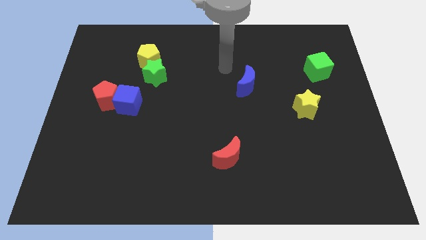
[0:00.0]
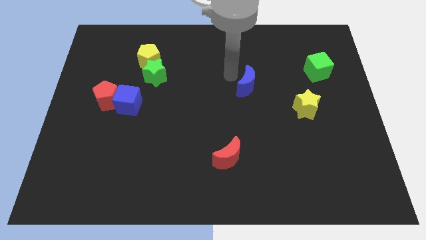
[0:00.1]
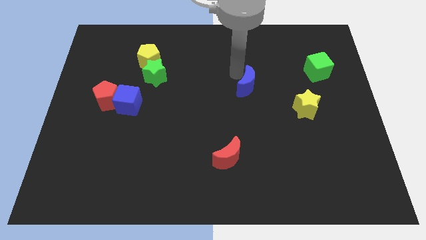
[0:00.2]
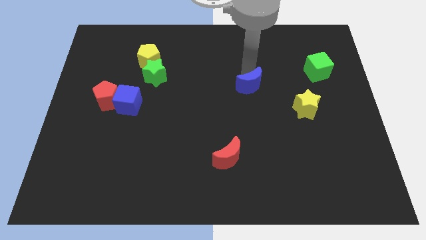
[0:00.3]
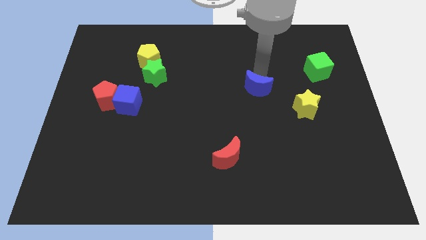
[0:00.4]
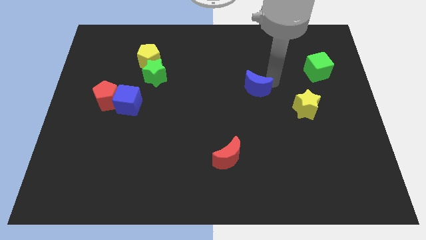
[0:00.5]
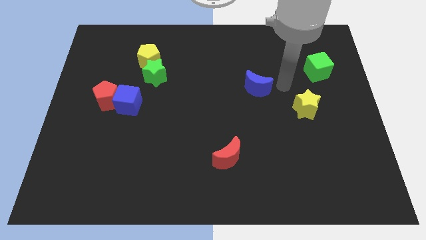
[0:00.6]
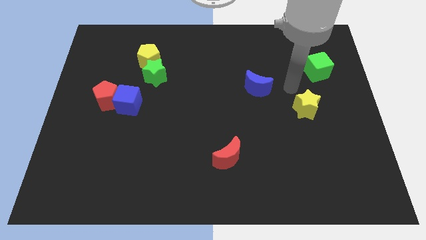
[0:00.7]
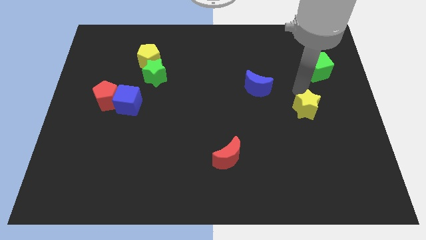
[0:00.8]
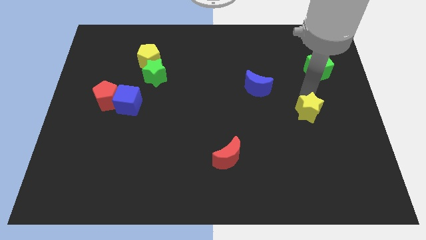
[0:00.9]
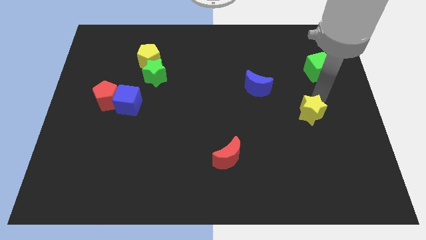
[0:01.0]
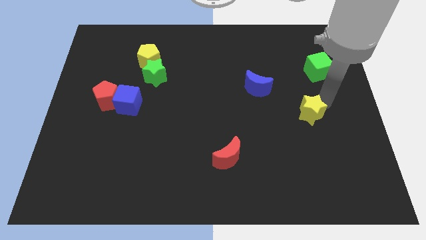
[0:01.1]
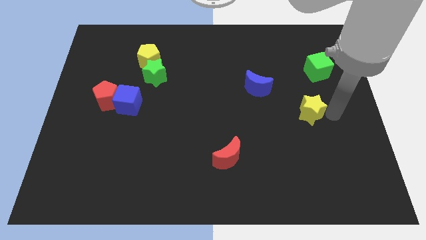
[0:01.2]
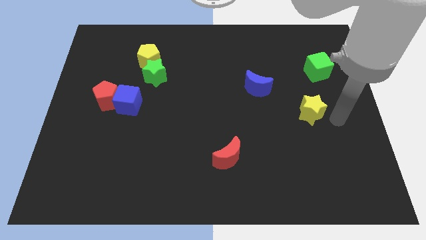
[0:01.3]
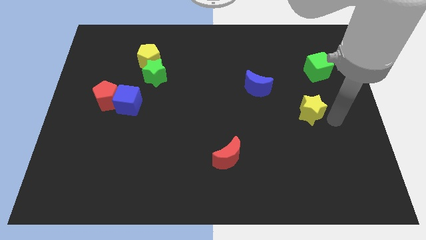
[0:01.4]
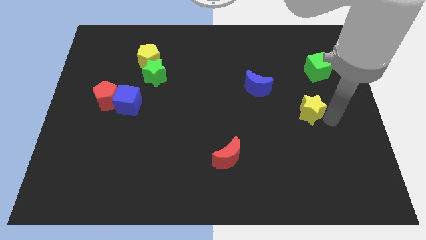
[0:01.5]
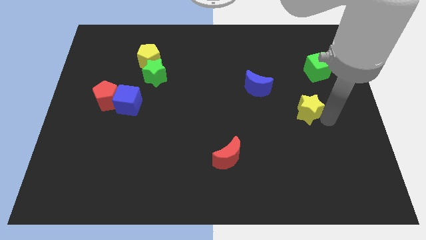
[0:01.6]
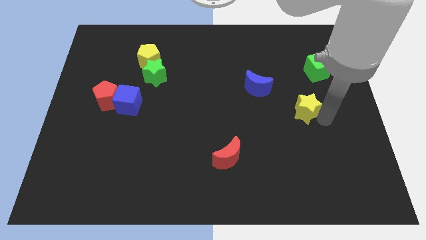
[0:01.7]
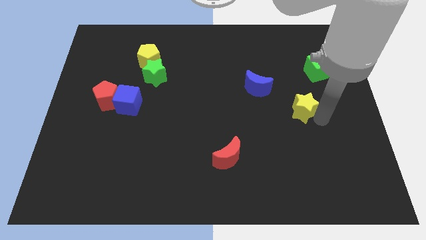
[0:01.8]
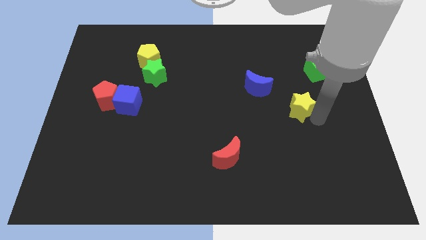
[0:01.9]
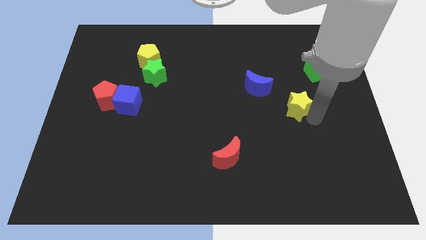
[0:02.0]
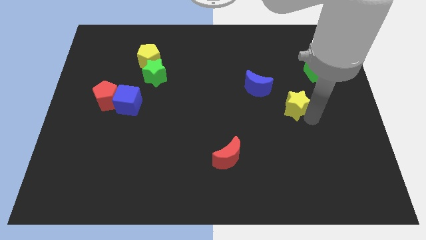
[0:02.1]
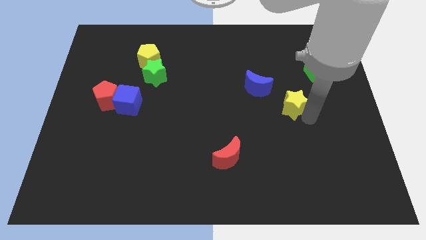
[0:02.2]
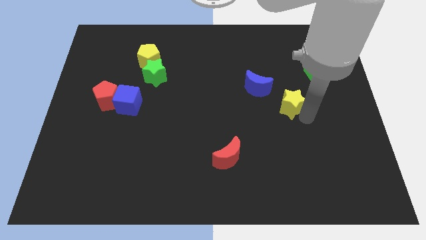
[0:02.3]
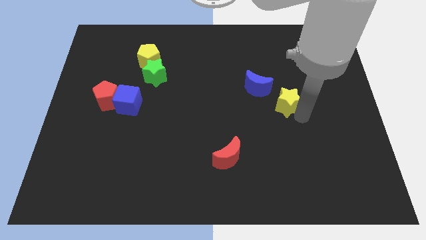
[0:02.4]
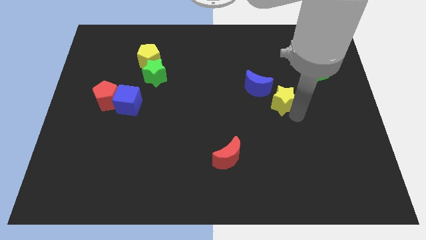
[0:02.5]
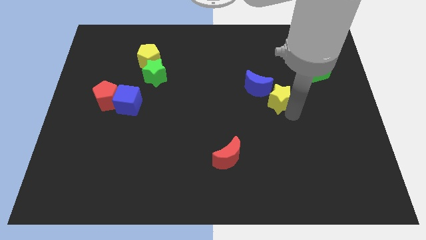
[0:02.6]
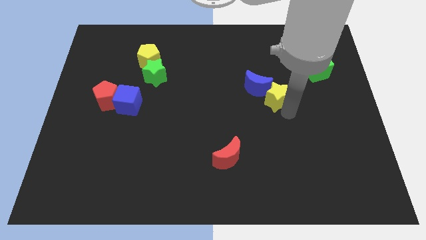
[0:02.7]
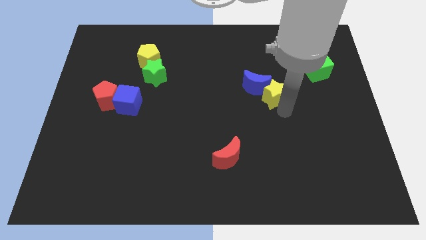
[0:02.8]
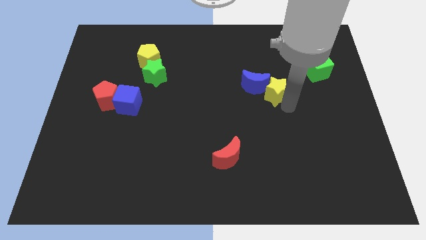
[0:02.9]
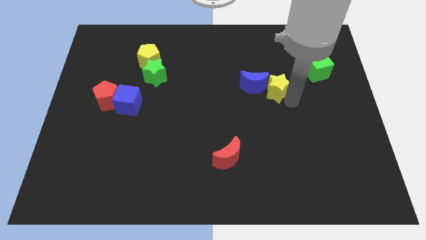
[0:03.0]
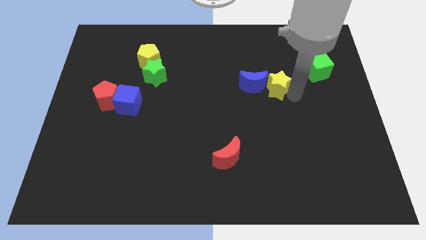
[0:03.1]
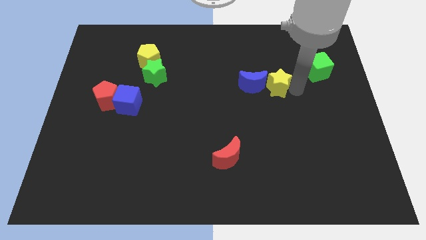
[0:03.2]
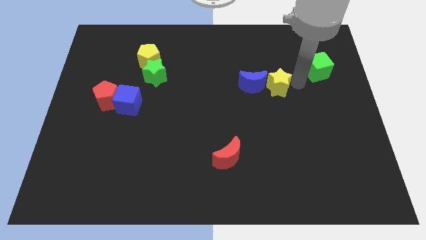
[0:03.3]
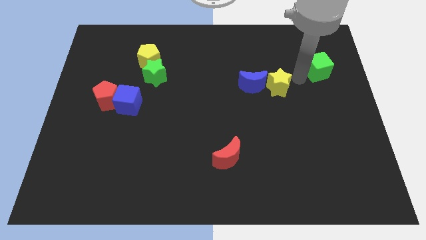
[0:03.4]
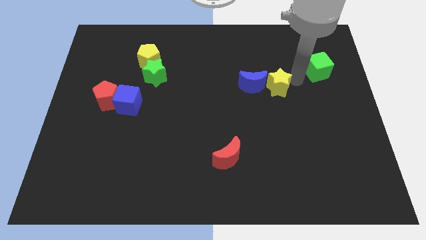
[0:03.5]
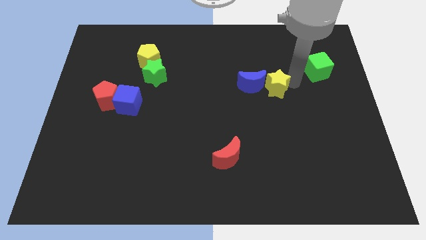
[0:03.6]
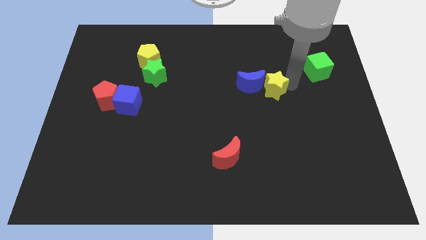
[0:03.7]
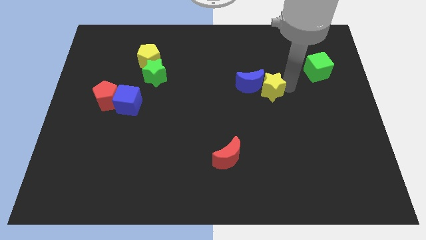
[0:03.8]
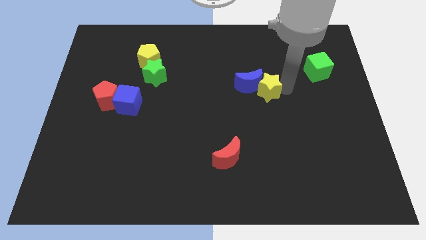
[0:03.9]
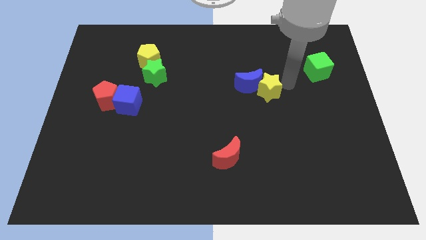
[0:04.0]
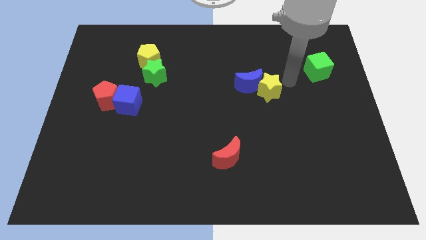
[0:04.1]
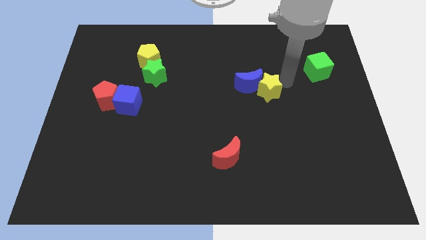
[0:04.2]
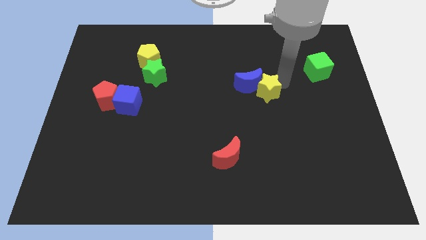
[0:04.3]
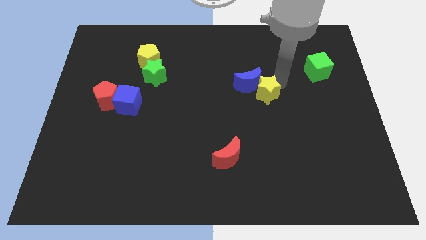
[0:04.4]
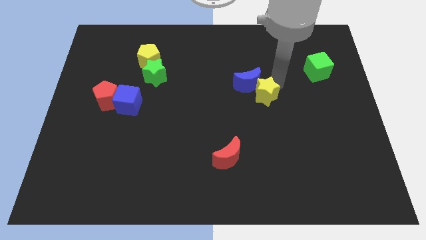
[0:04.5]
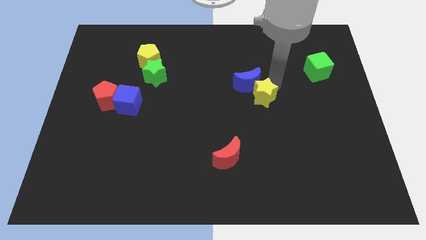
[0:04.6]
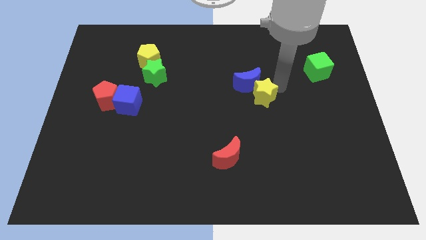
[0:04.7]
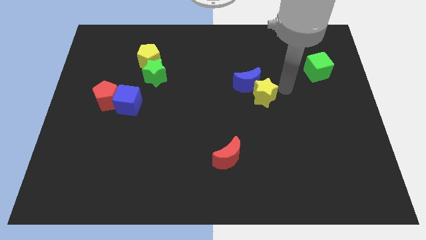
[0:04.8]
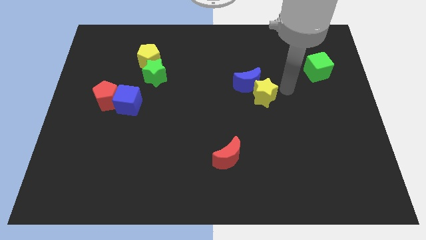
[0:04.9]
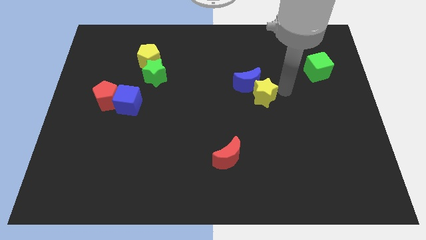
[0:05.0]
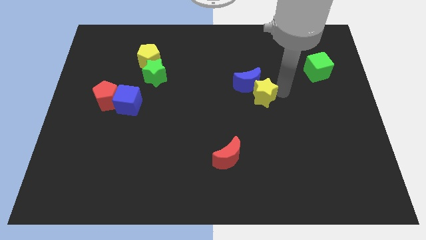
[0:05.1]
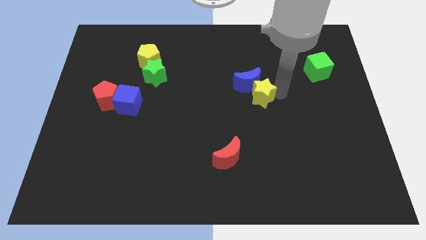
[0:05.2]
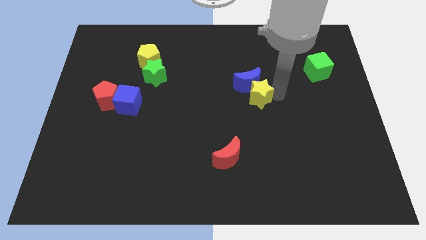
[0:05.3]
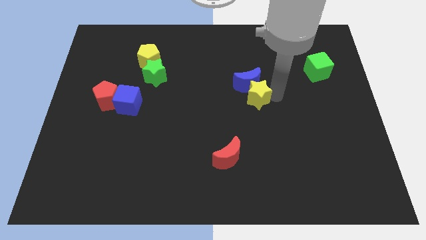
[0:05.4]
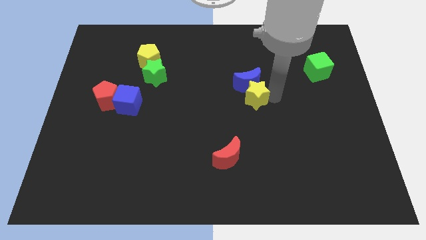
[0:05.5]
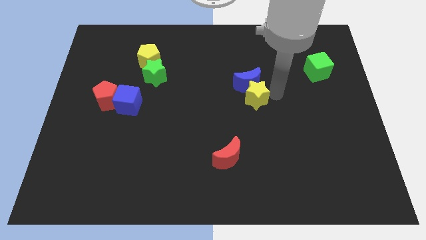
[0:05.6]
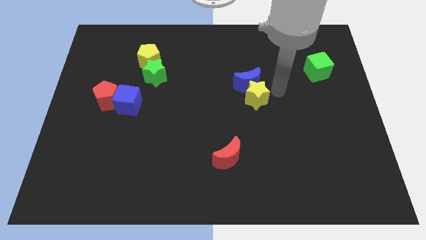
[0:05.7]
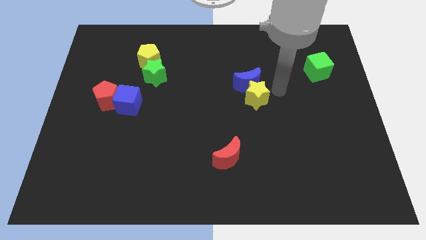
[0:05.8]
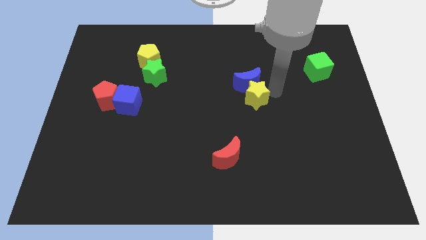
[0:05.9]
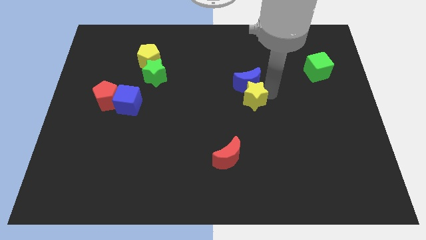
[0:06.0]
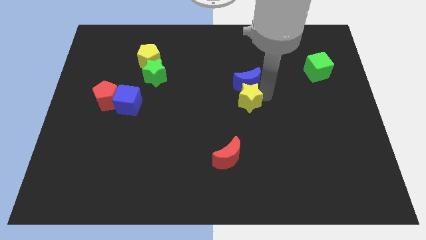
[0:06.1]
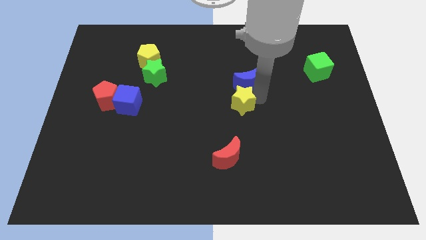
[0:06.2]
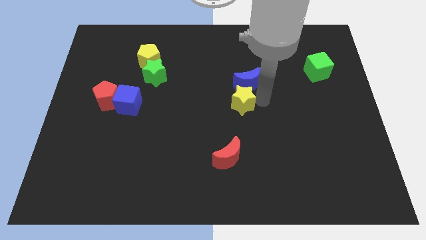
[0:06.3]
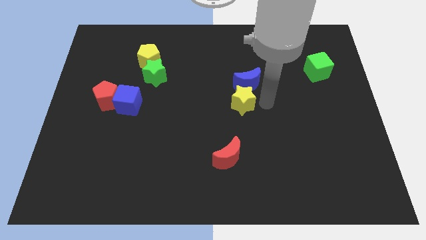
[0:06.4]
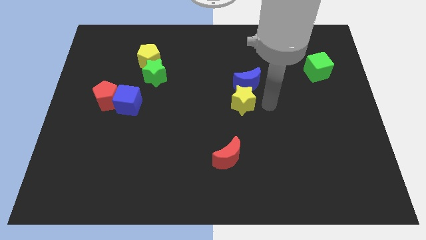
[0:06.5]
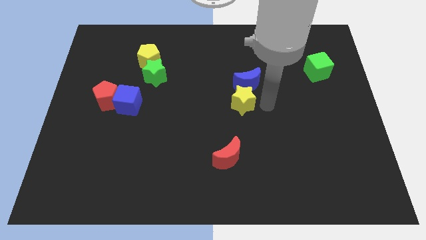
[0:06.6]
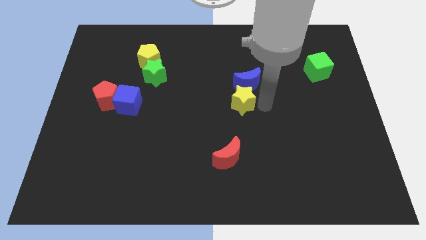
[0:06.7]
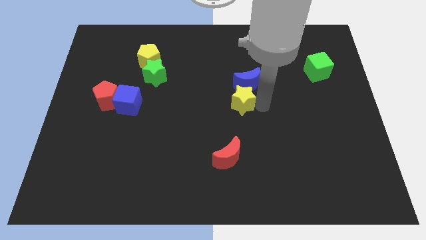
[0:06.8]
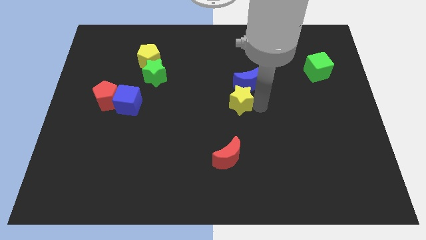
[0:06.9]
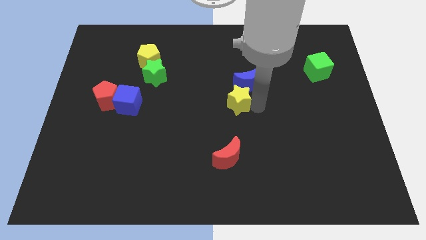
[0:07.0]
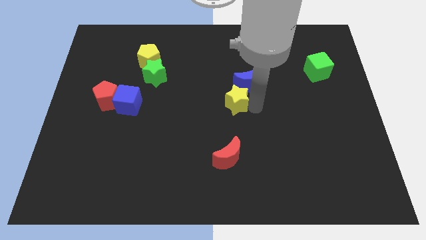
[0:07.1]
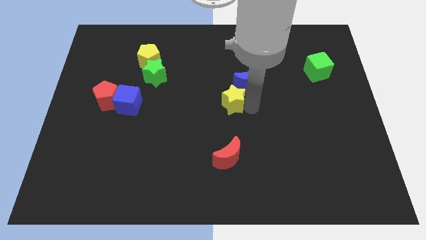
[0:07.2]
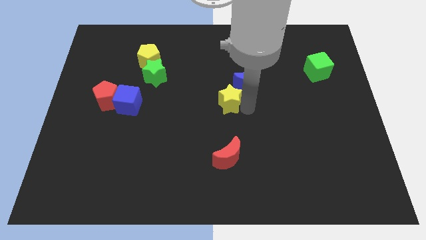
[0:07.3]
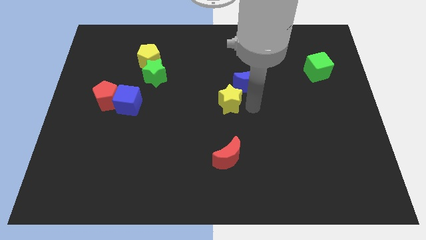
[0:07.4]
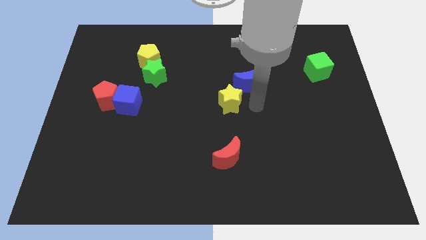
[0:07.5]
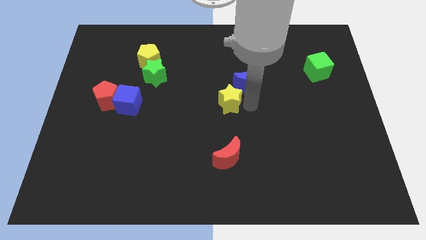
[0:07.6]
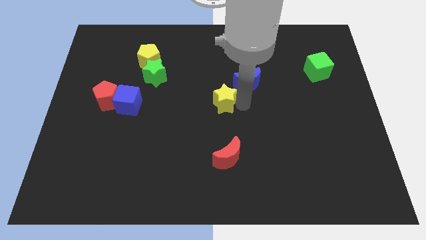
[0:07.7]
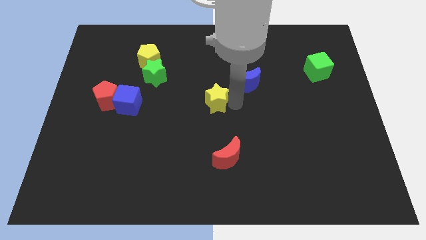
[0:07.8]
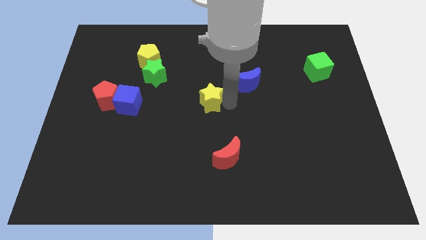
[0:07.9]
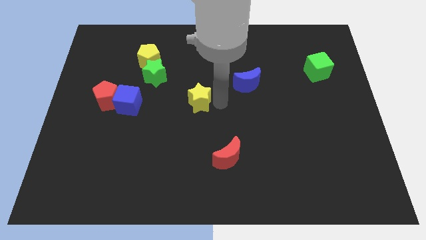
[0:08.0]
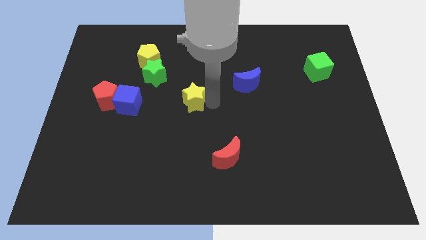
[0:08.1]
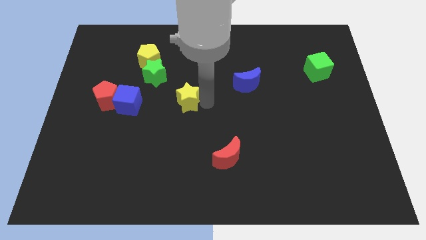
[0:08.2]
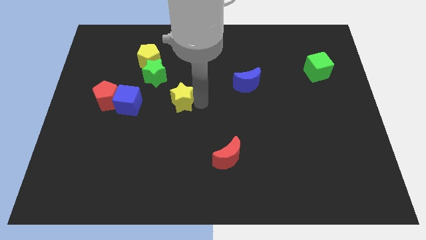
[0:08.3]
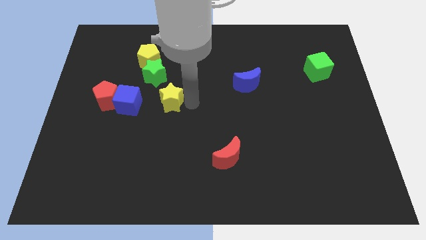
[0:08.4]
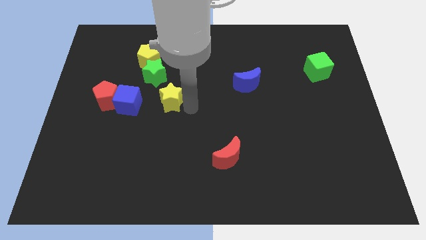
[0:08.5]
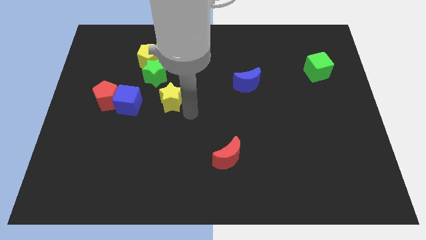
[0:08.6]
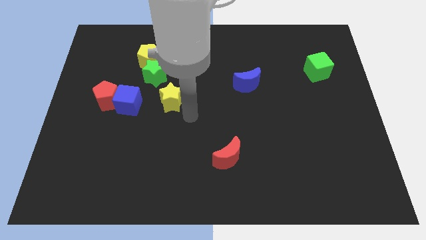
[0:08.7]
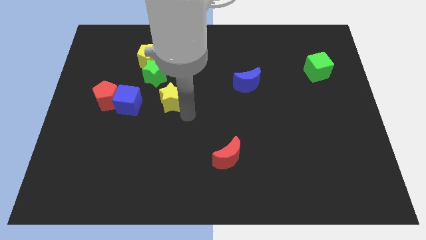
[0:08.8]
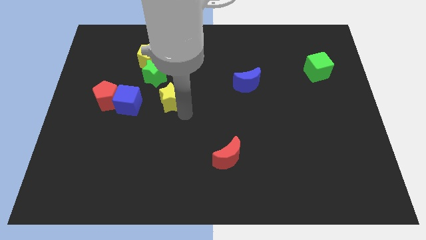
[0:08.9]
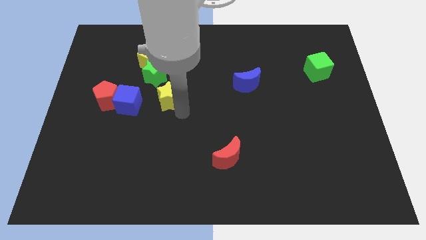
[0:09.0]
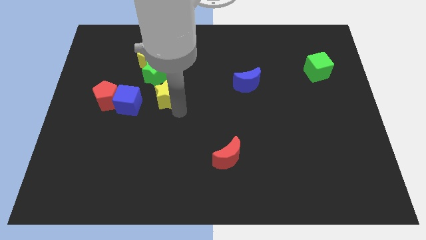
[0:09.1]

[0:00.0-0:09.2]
put the yellow star to the top right of the blue cube
